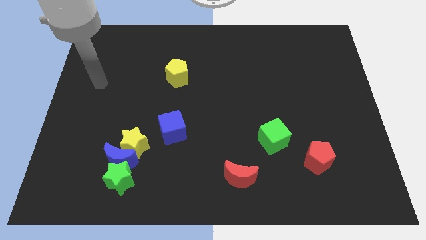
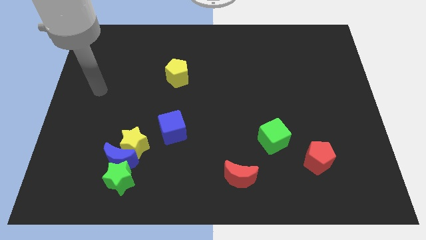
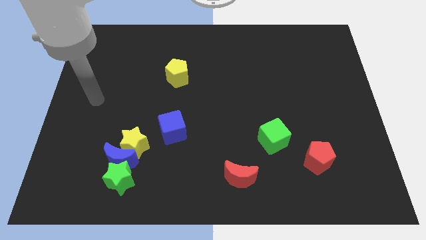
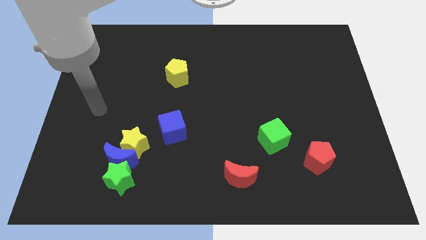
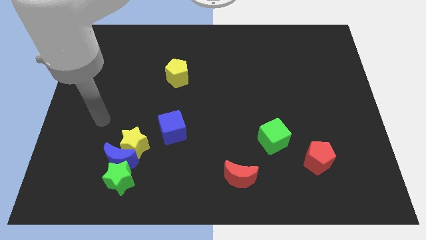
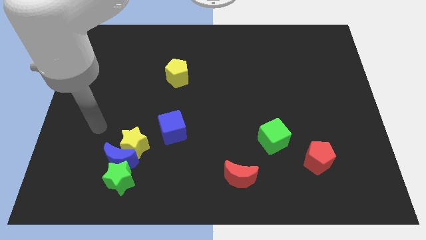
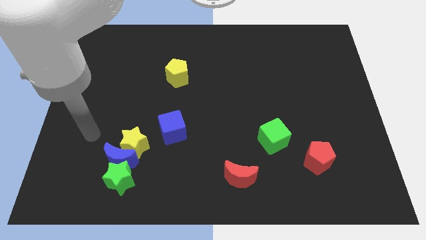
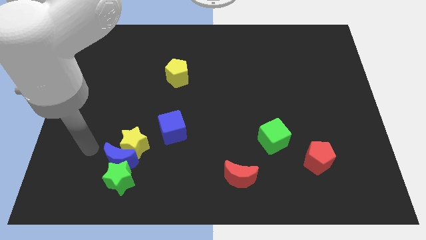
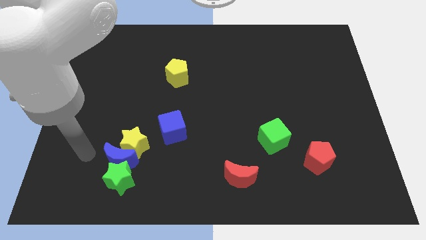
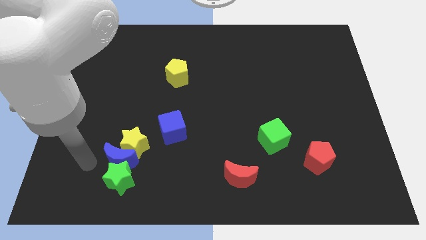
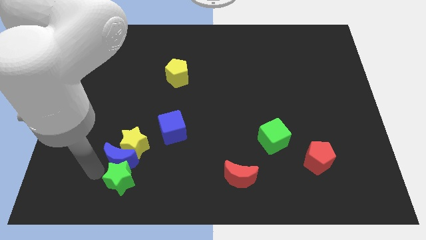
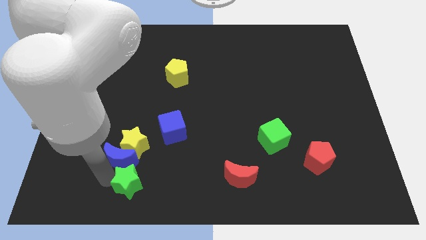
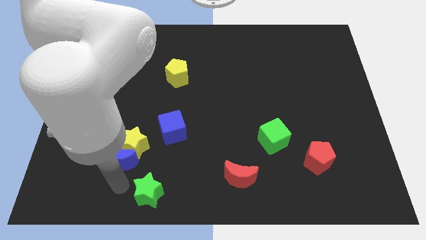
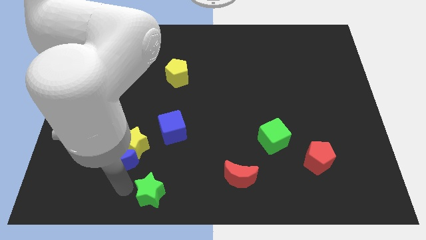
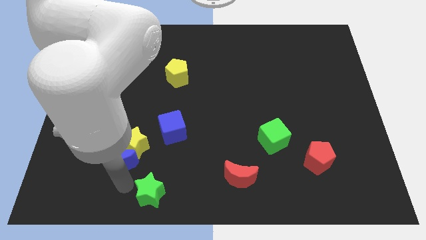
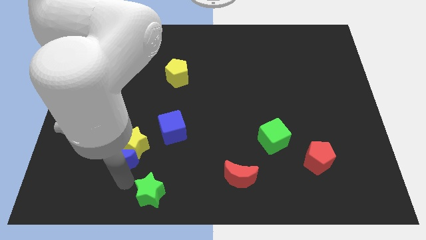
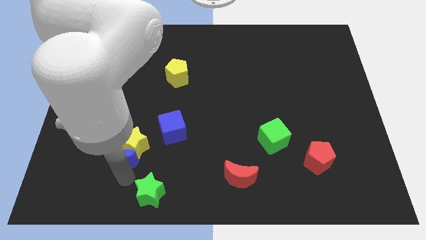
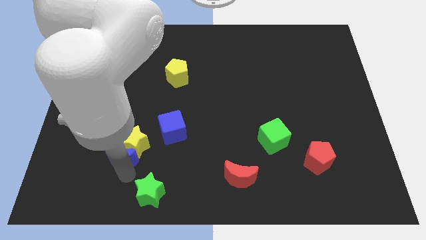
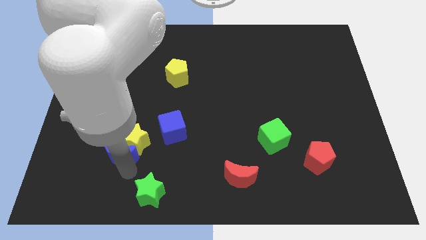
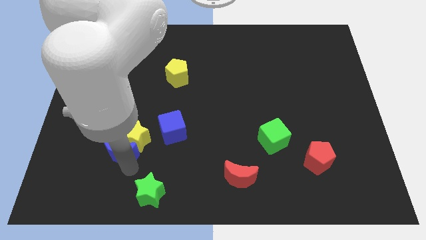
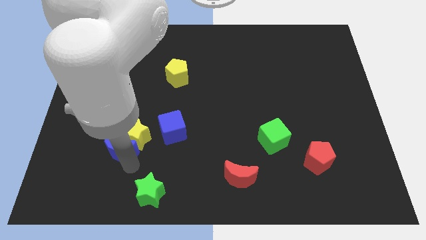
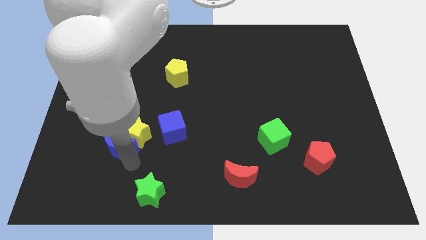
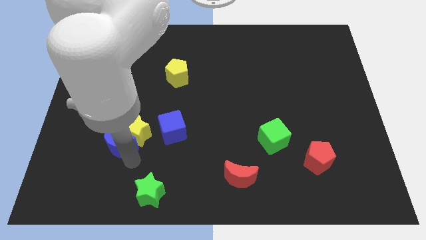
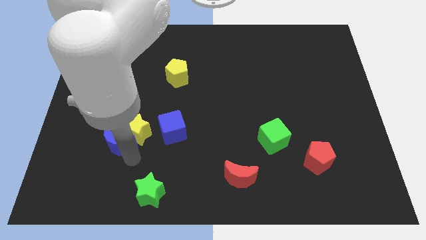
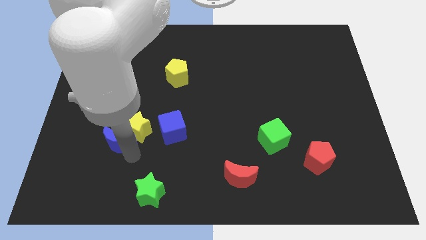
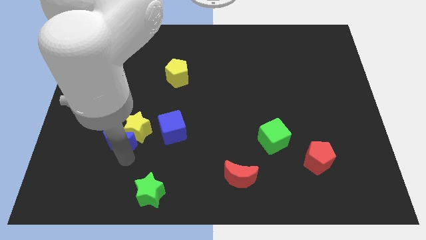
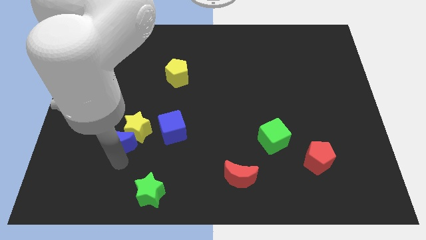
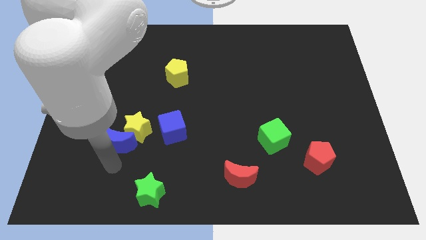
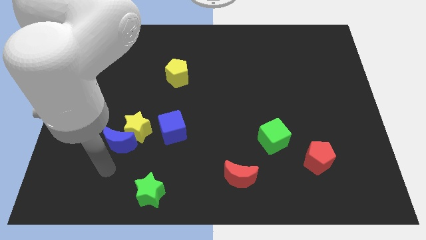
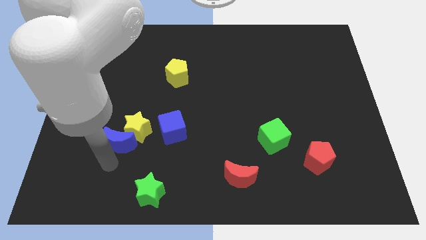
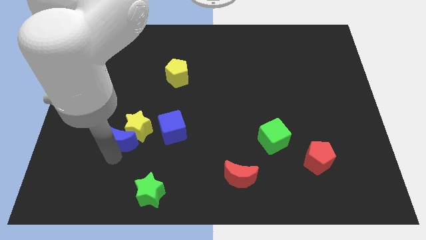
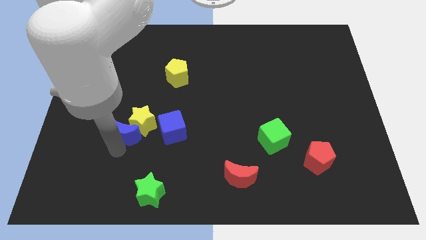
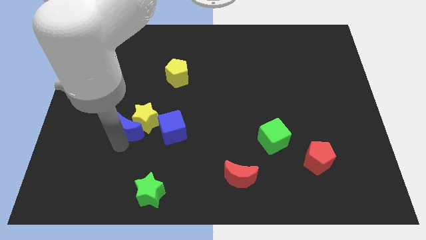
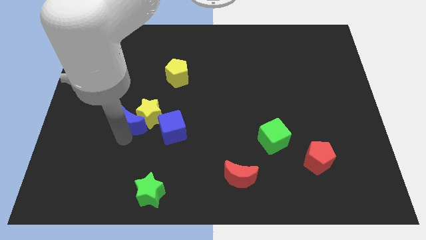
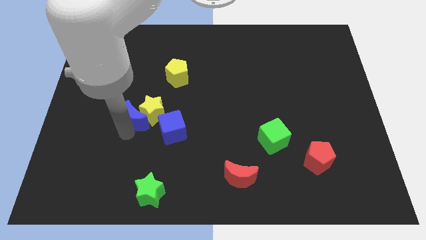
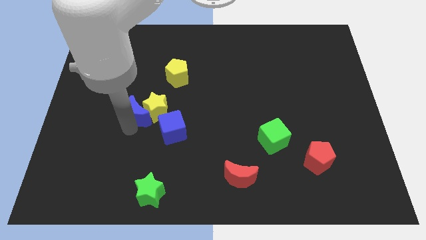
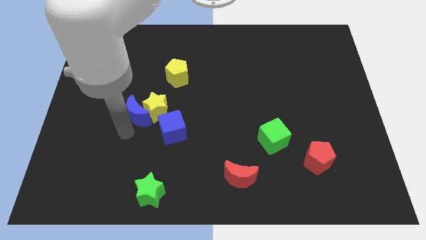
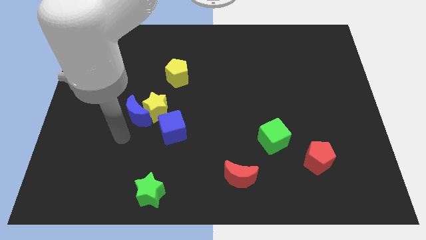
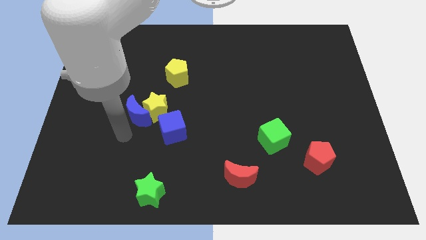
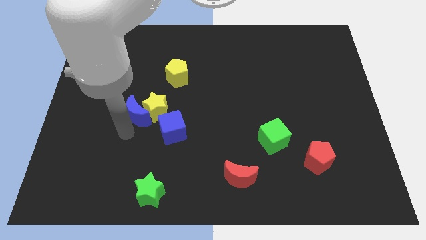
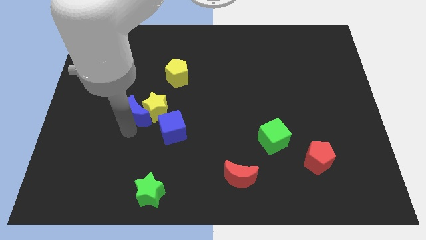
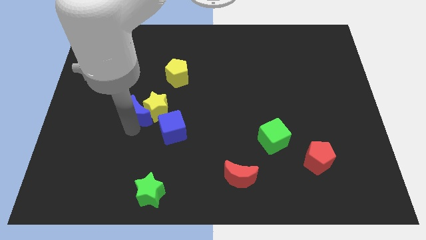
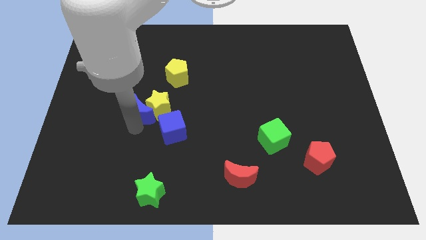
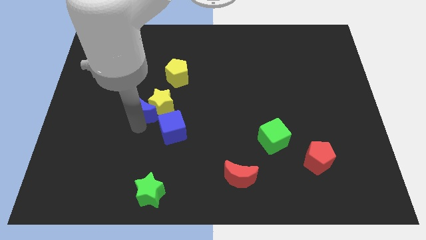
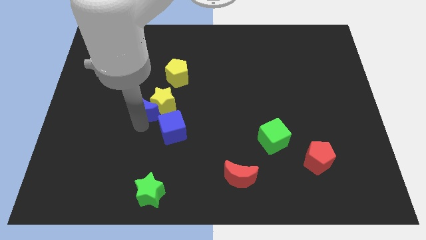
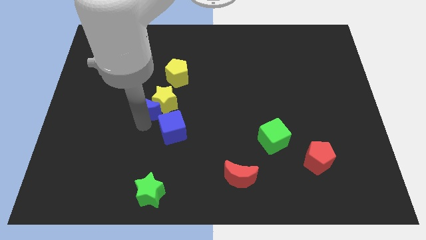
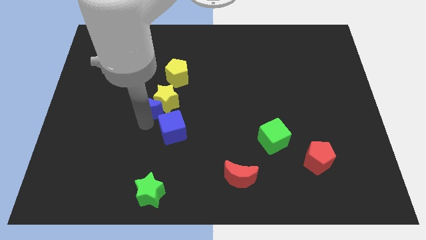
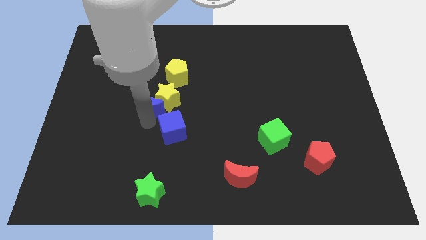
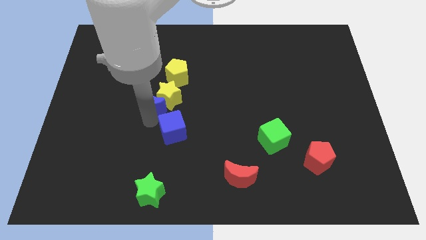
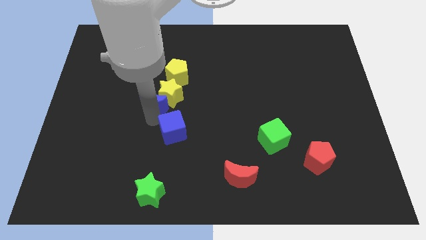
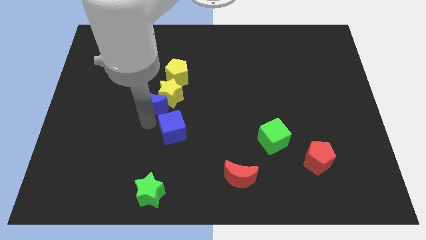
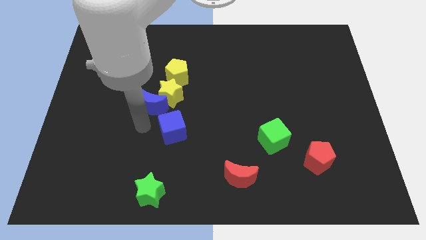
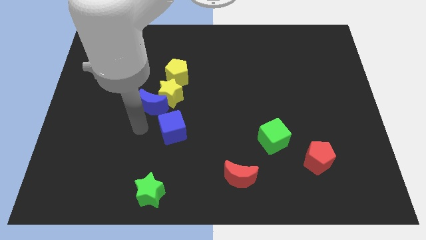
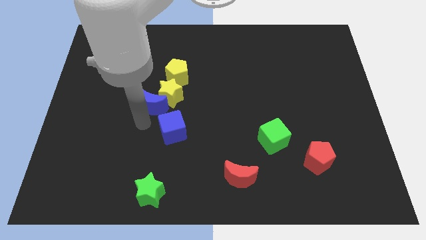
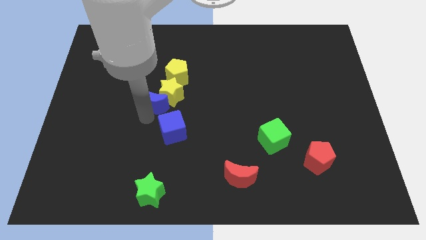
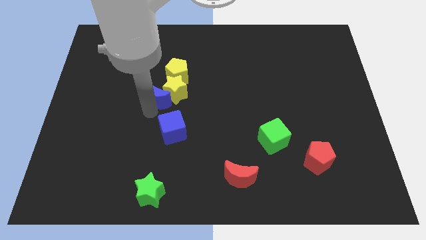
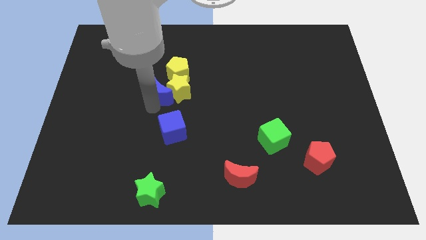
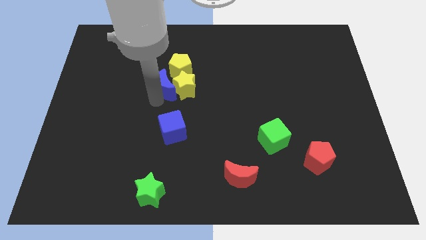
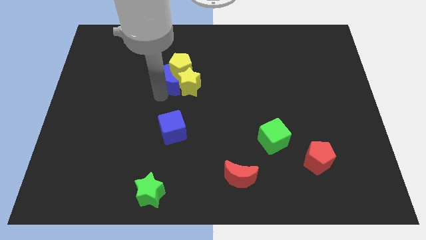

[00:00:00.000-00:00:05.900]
put the blue moon close to the yellow pentagon

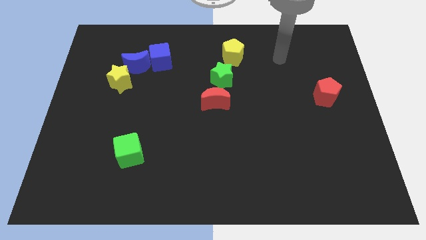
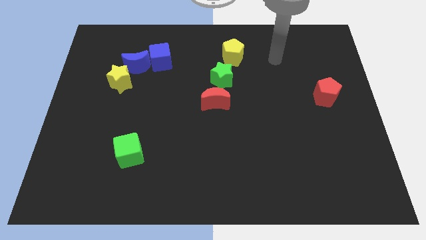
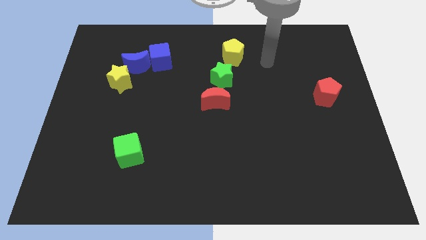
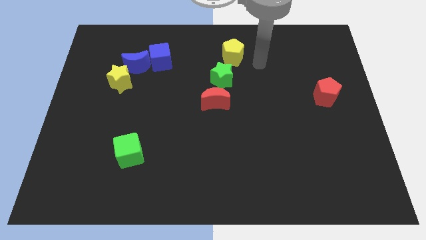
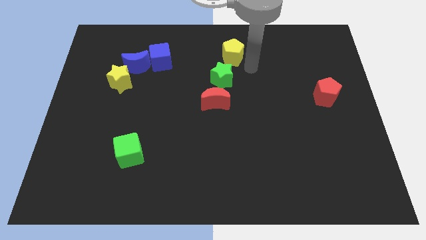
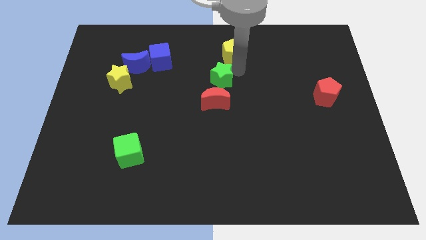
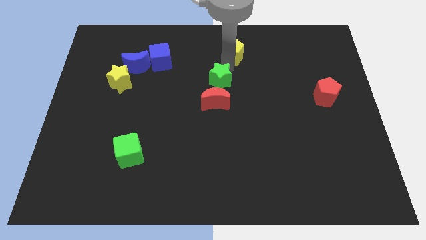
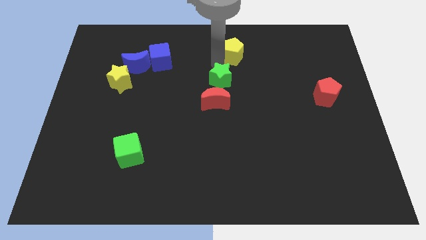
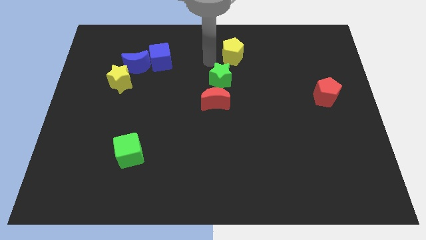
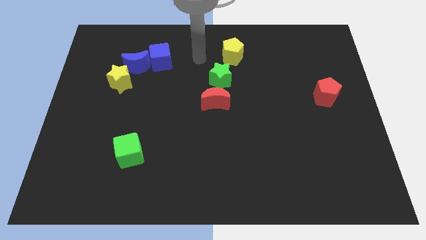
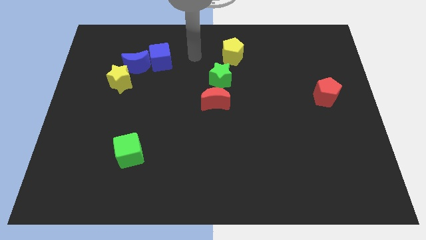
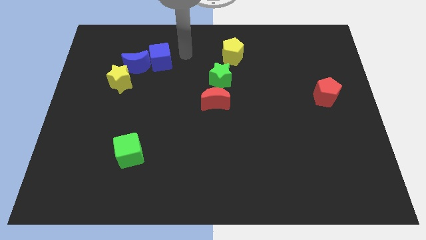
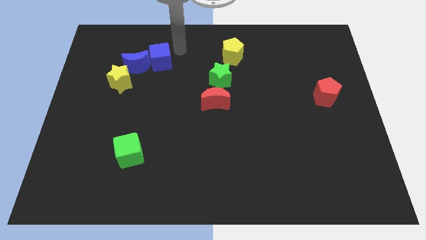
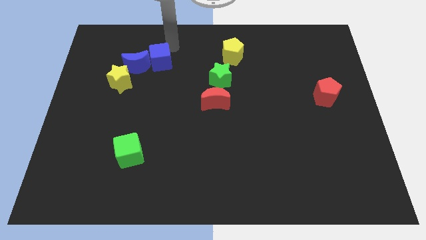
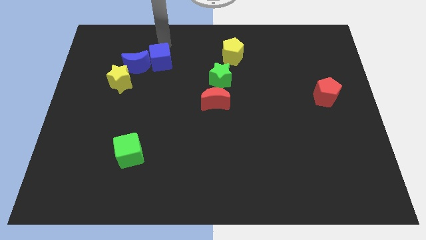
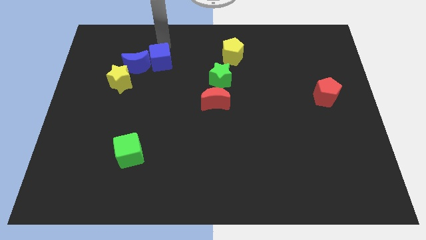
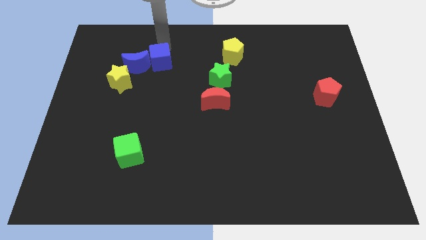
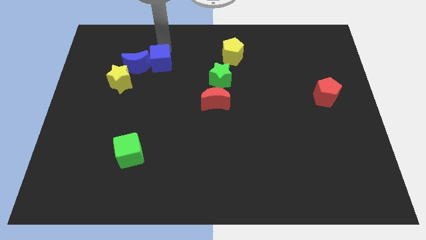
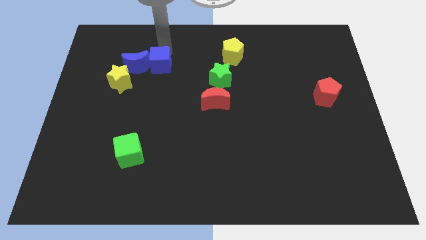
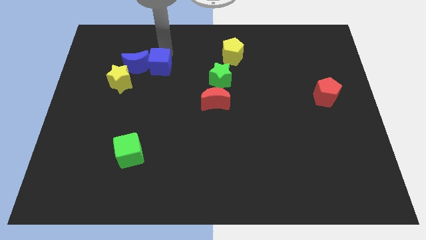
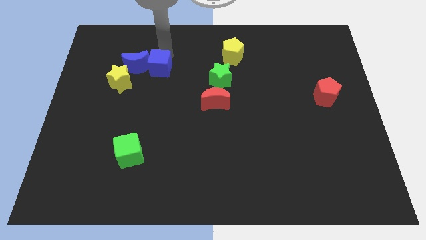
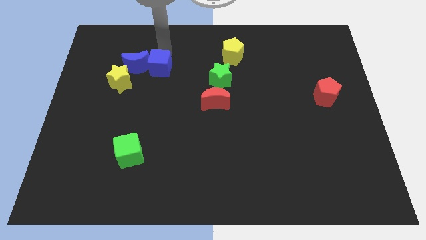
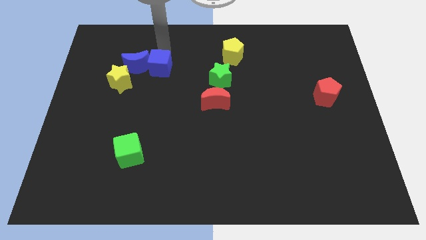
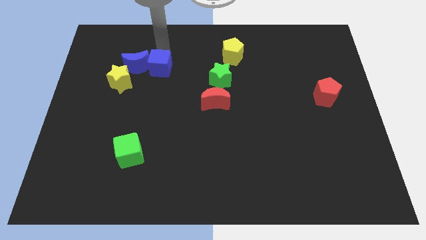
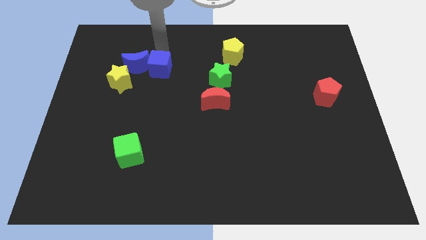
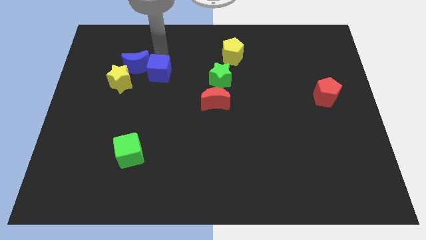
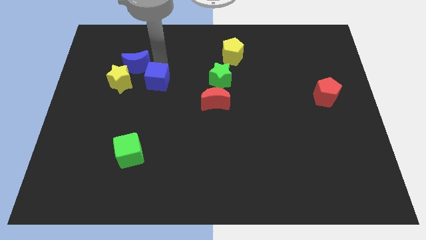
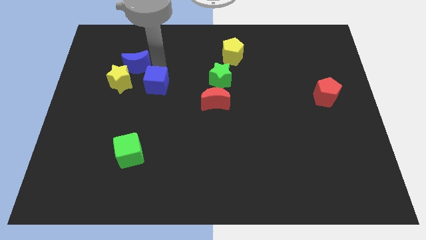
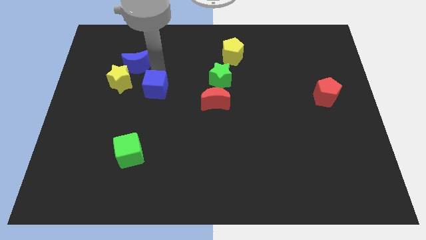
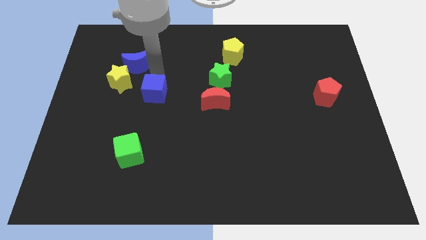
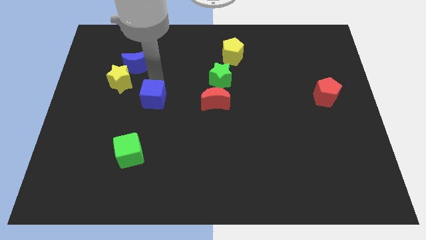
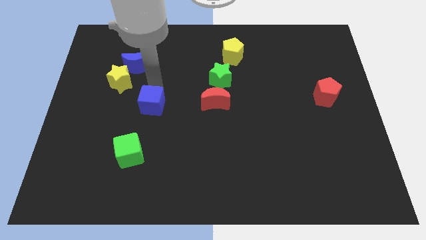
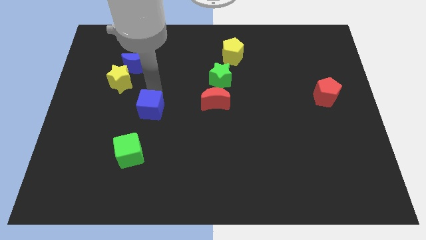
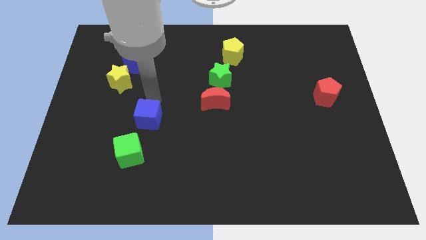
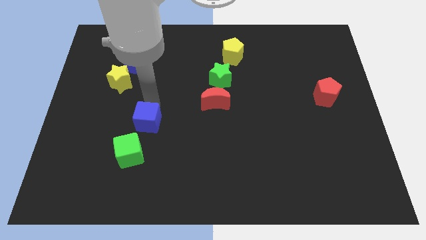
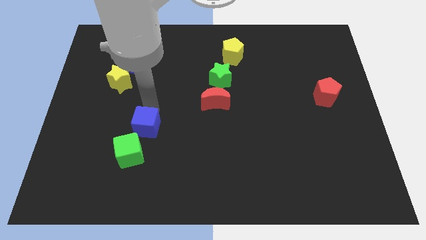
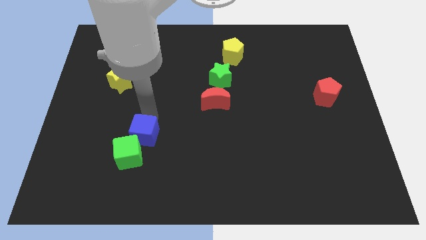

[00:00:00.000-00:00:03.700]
push the blue cube towards the green cube
